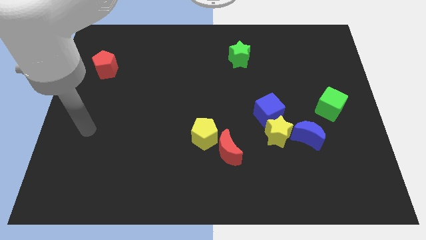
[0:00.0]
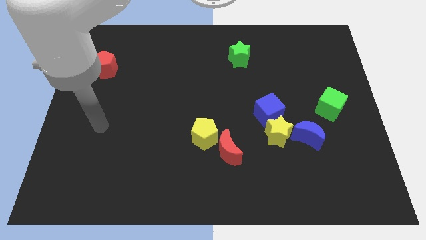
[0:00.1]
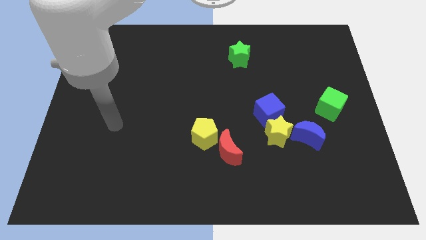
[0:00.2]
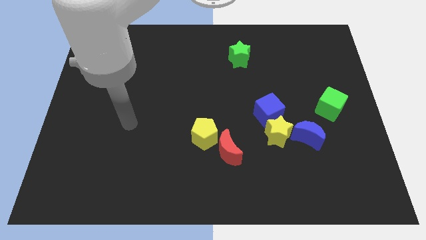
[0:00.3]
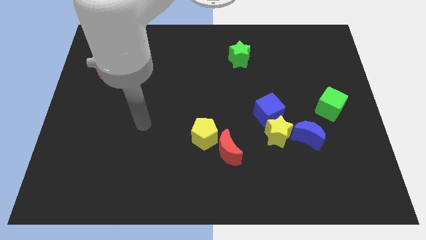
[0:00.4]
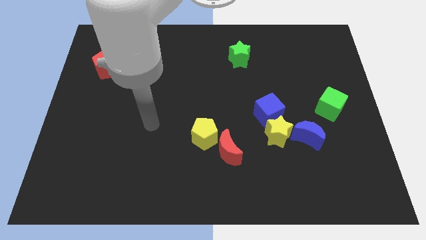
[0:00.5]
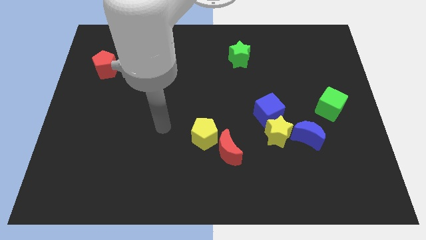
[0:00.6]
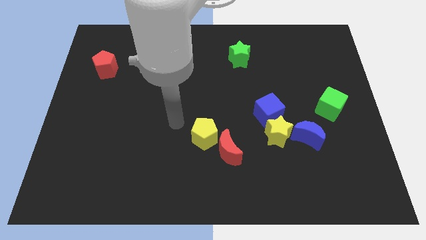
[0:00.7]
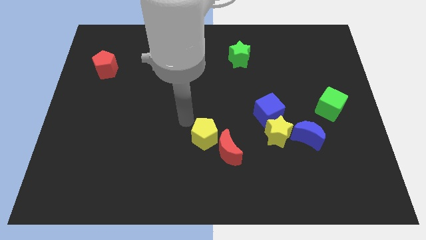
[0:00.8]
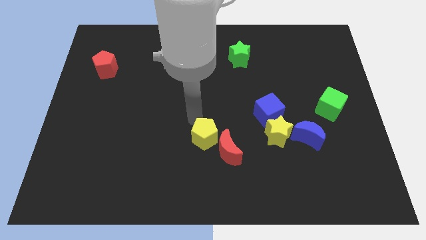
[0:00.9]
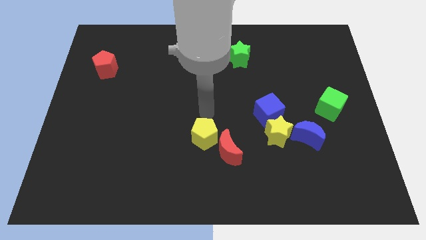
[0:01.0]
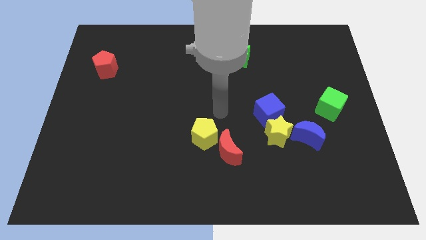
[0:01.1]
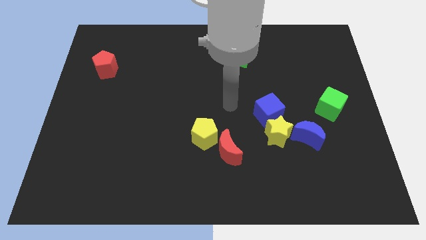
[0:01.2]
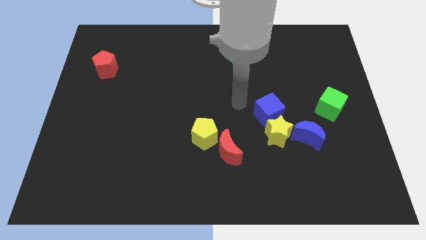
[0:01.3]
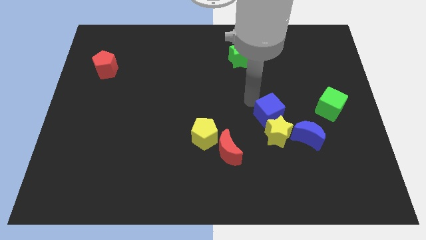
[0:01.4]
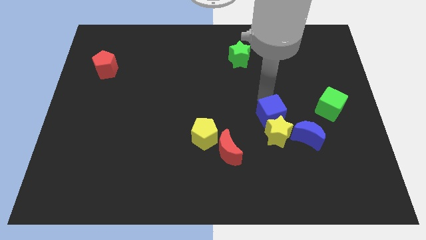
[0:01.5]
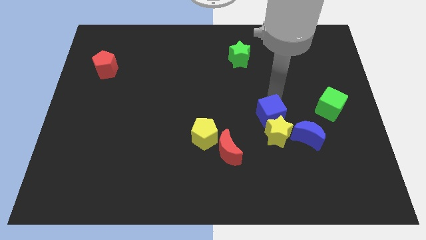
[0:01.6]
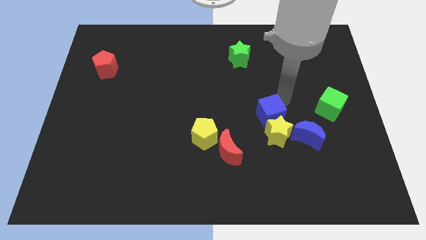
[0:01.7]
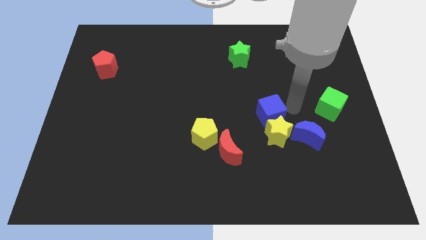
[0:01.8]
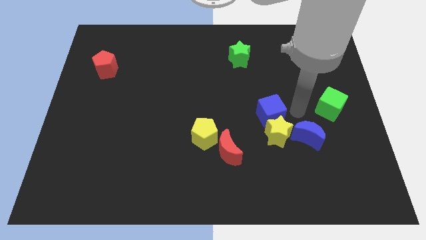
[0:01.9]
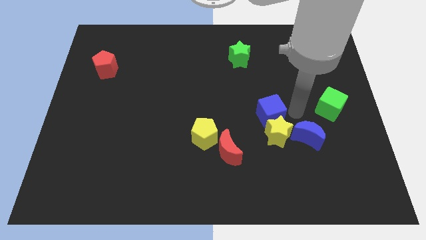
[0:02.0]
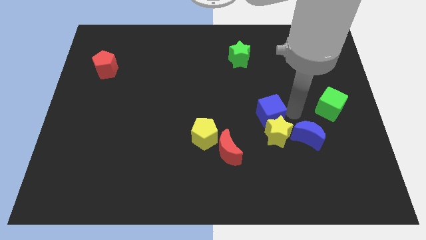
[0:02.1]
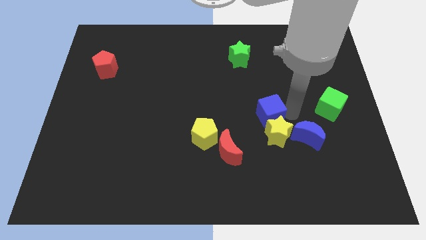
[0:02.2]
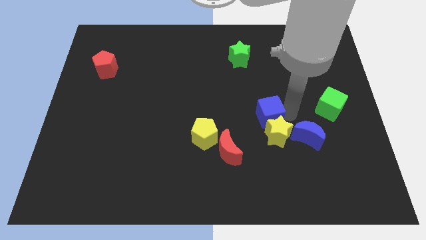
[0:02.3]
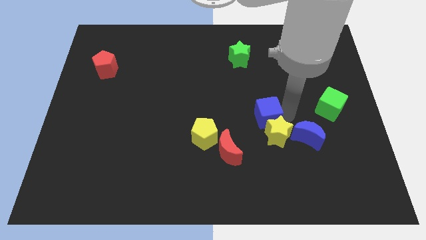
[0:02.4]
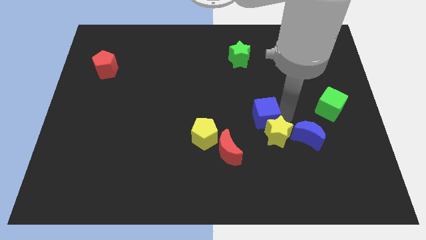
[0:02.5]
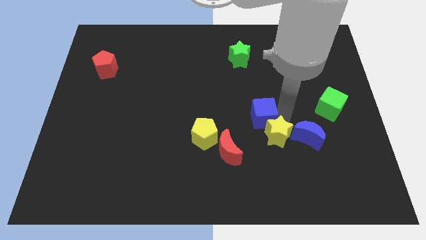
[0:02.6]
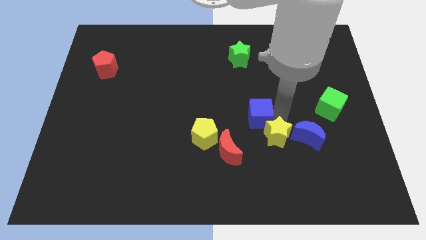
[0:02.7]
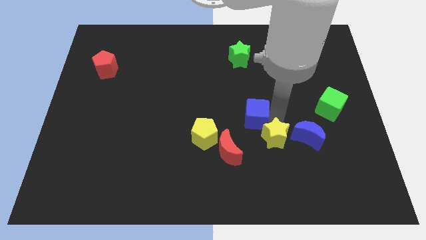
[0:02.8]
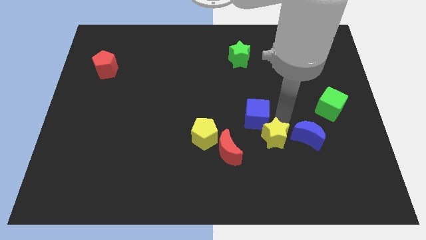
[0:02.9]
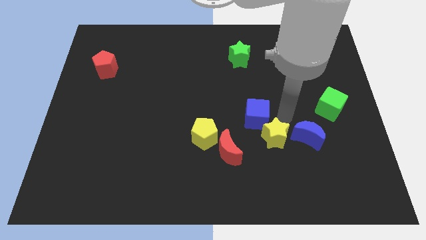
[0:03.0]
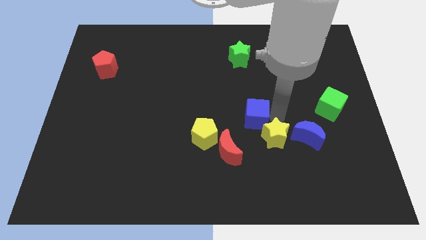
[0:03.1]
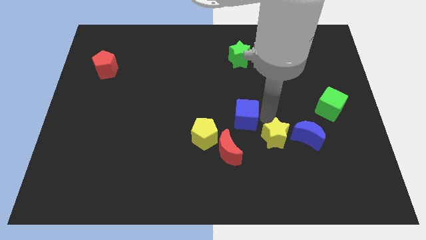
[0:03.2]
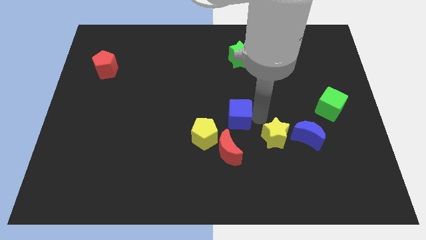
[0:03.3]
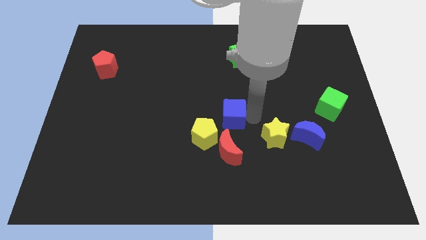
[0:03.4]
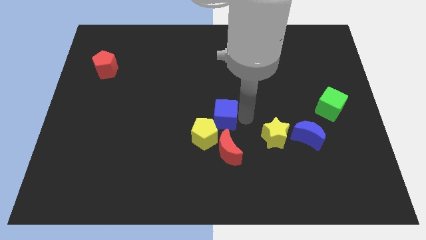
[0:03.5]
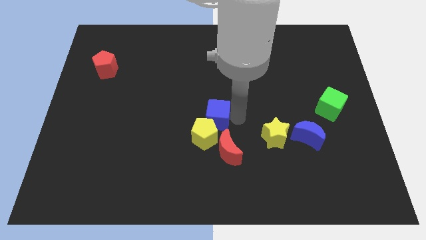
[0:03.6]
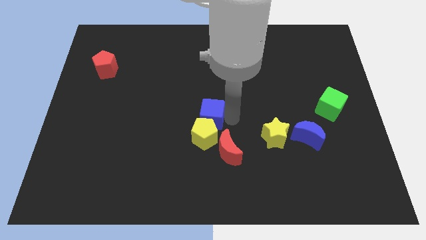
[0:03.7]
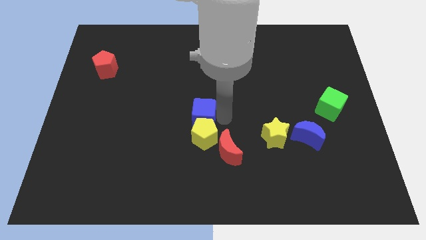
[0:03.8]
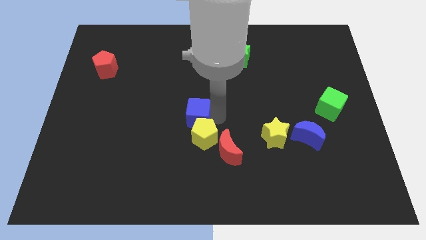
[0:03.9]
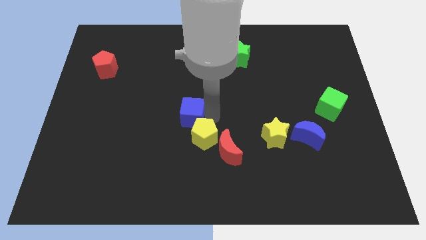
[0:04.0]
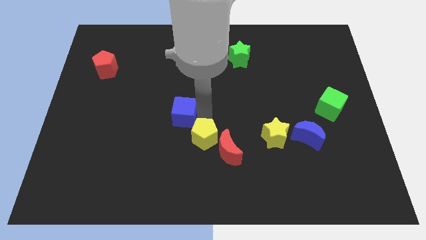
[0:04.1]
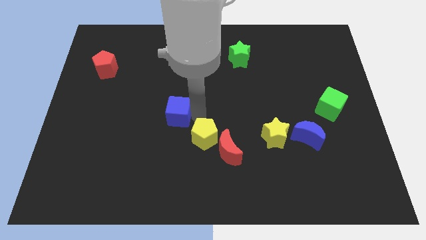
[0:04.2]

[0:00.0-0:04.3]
slide the blue cube to the left

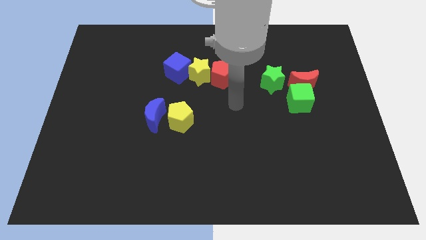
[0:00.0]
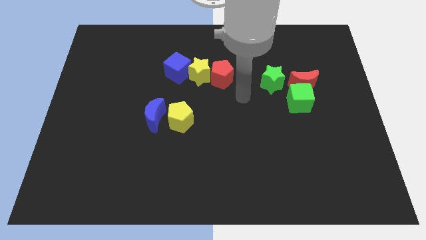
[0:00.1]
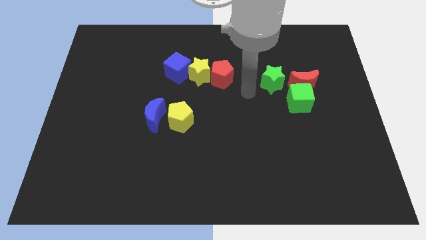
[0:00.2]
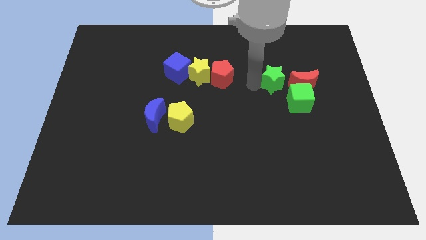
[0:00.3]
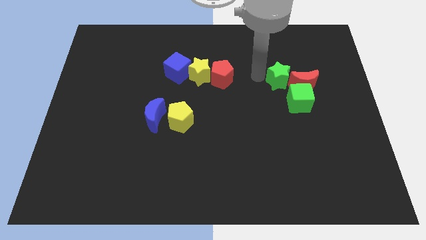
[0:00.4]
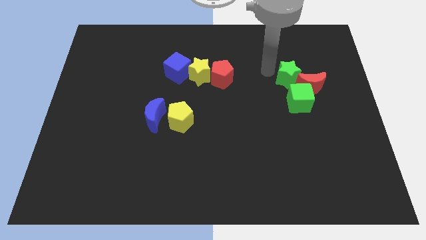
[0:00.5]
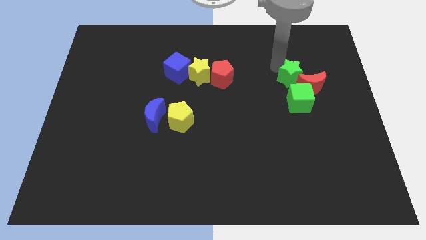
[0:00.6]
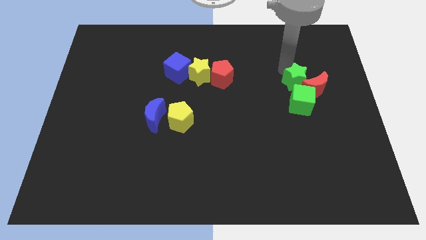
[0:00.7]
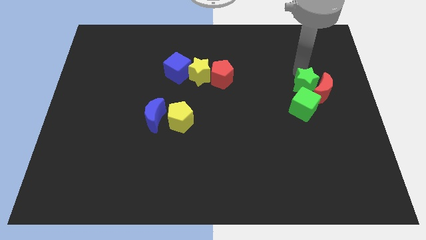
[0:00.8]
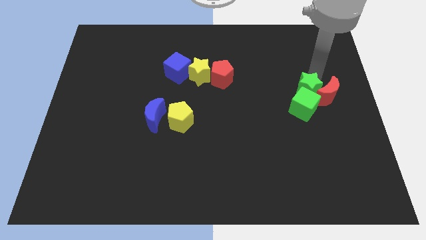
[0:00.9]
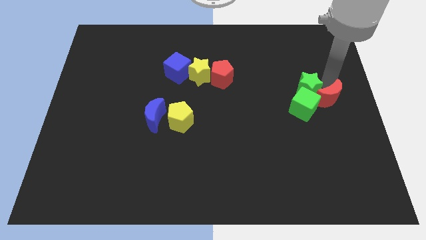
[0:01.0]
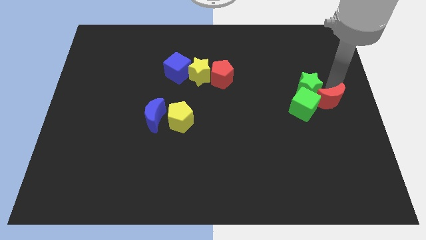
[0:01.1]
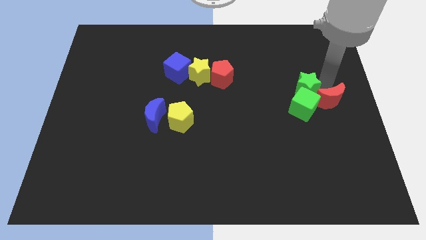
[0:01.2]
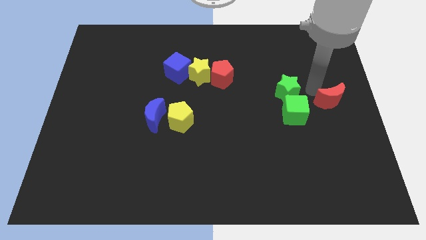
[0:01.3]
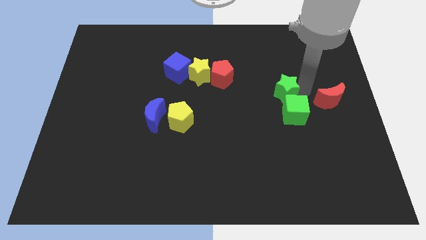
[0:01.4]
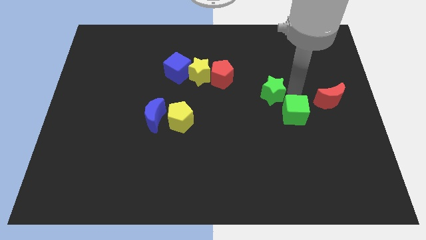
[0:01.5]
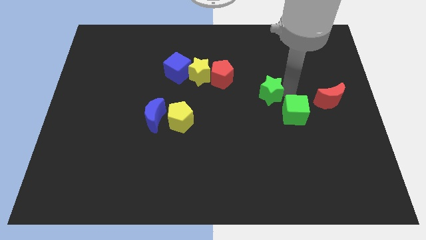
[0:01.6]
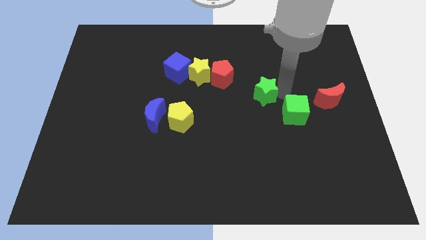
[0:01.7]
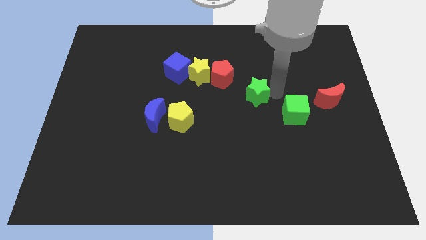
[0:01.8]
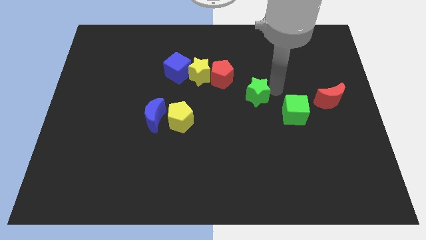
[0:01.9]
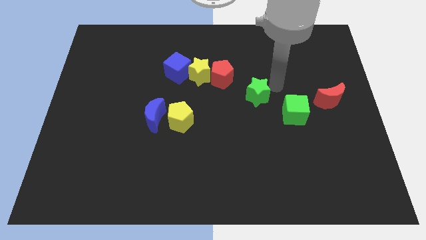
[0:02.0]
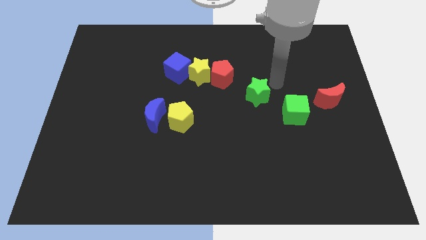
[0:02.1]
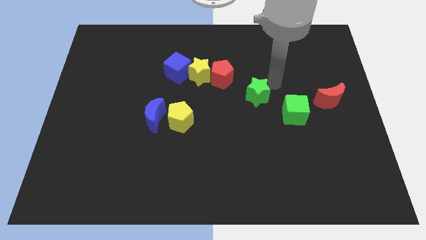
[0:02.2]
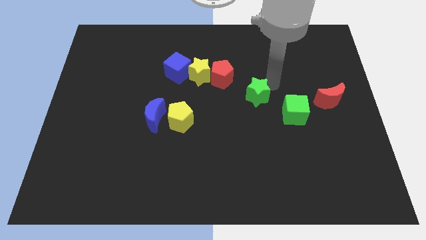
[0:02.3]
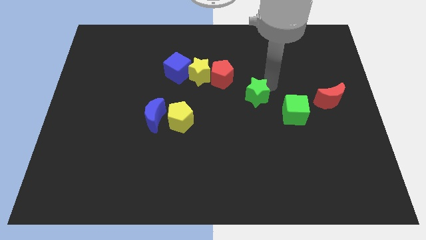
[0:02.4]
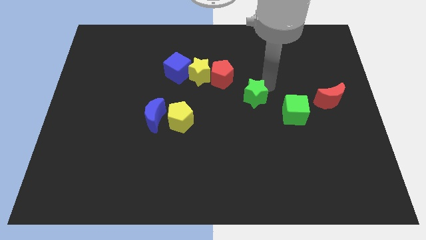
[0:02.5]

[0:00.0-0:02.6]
slightly push the green star downwards and then left

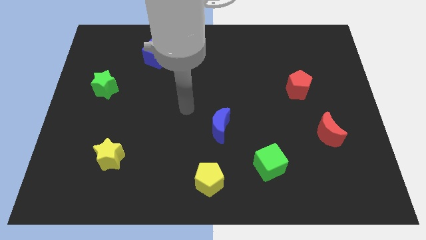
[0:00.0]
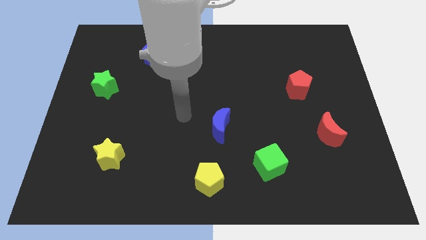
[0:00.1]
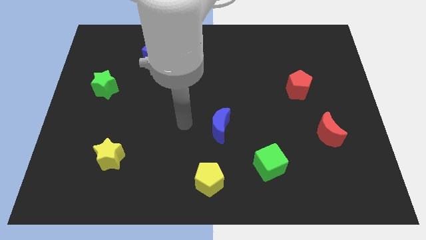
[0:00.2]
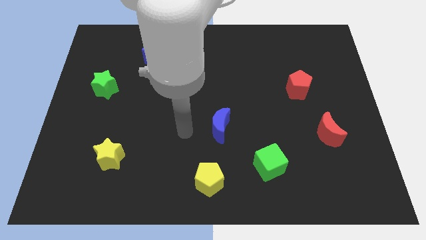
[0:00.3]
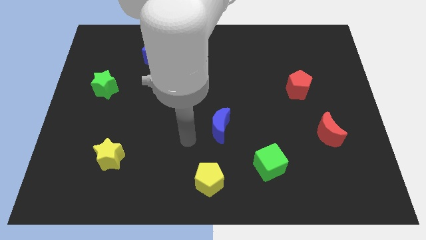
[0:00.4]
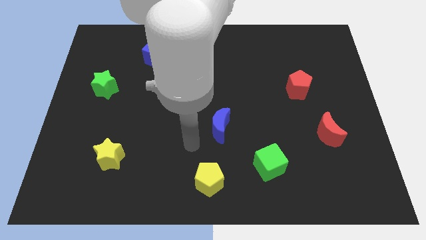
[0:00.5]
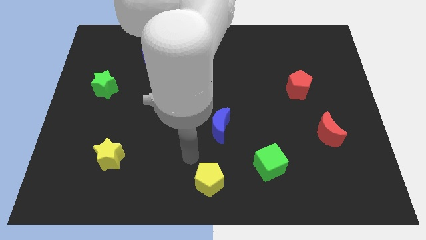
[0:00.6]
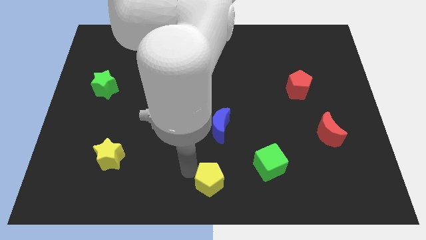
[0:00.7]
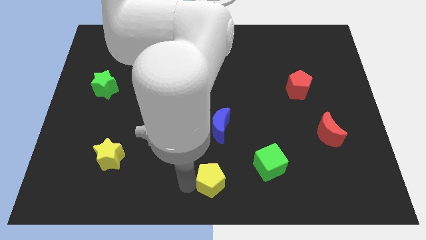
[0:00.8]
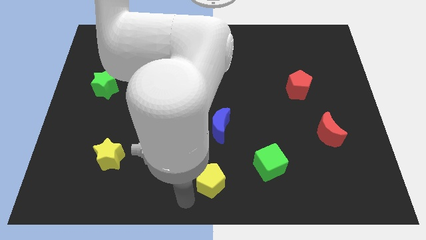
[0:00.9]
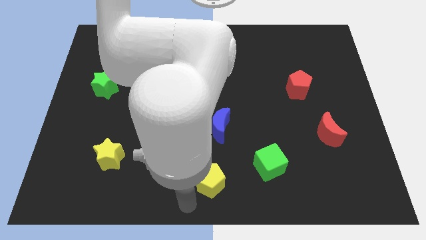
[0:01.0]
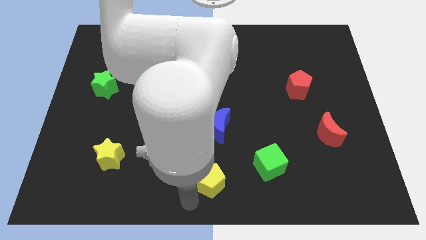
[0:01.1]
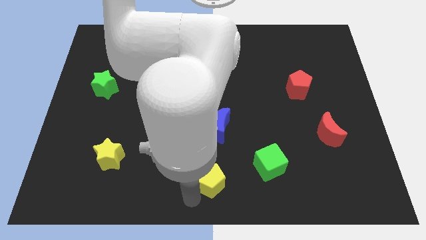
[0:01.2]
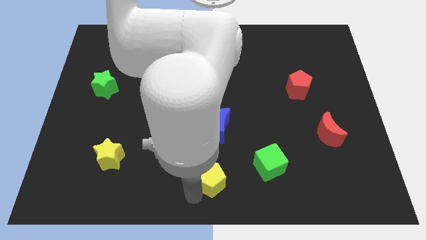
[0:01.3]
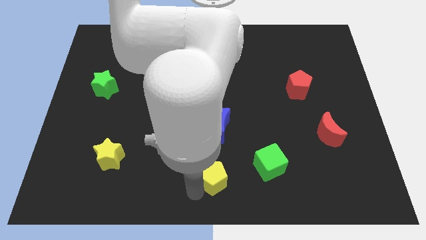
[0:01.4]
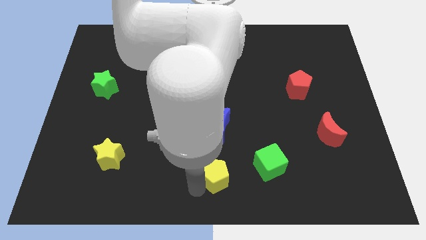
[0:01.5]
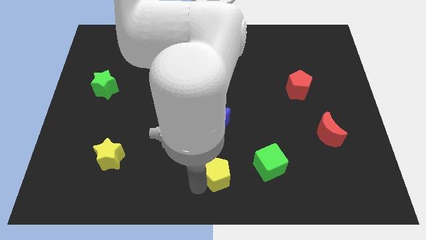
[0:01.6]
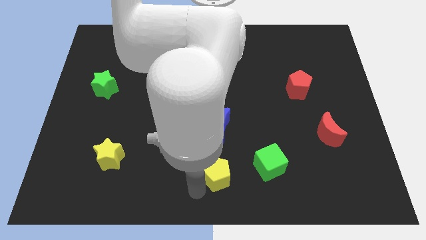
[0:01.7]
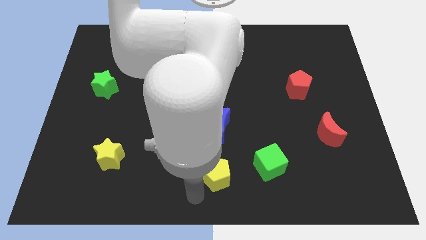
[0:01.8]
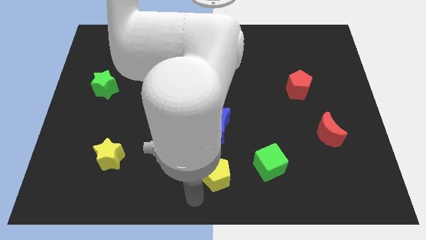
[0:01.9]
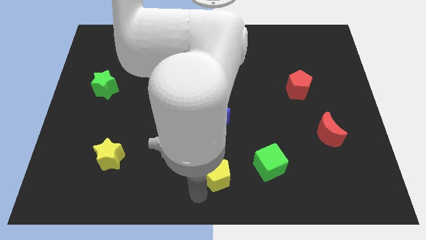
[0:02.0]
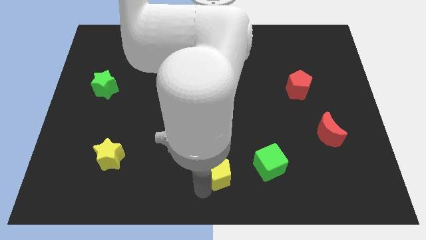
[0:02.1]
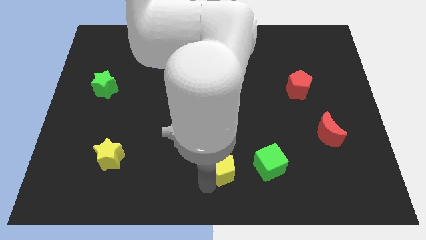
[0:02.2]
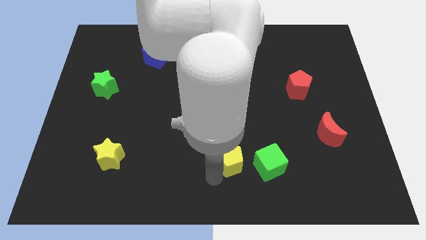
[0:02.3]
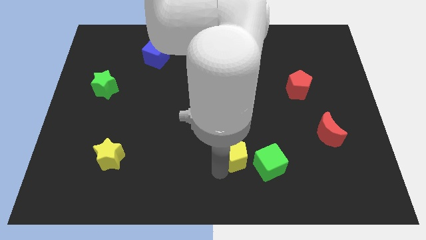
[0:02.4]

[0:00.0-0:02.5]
move the yellow pentagon diagonally upwards and right slightly
